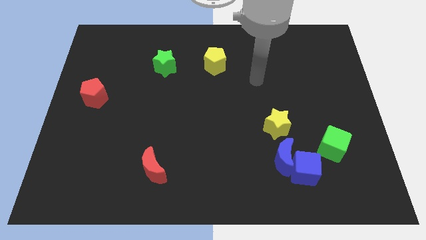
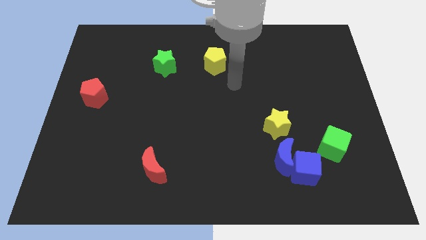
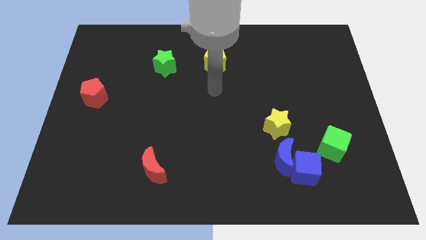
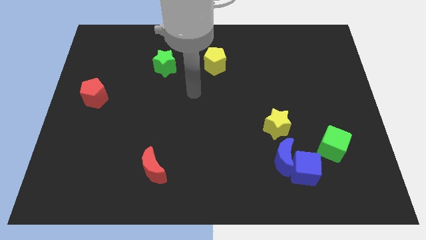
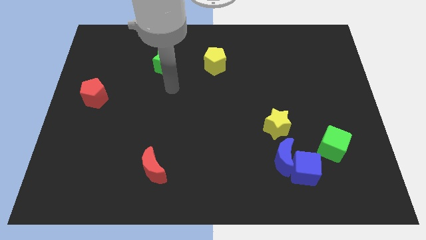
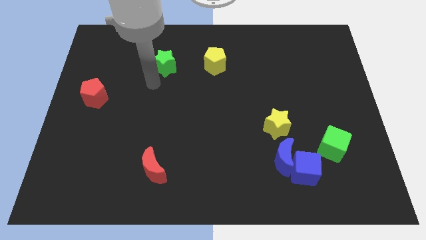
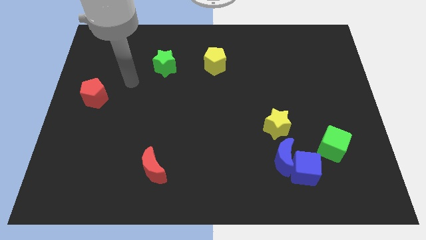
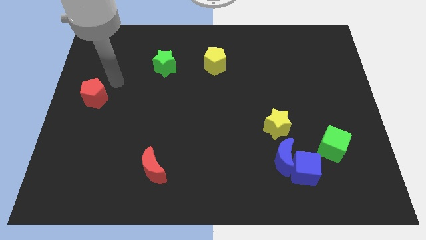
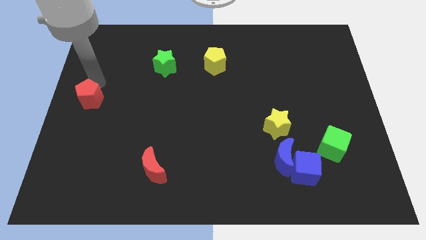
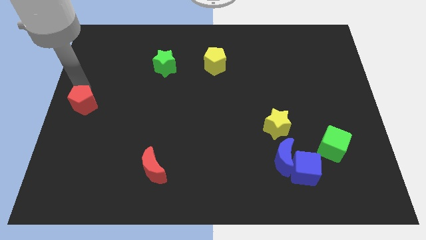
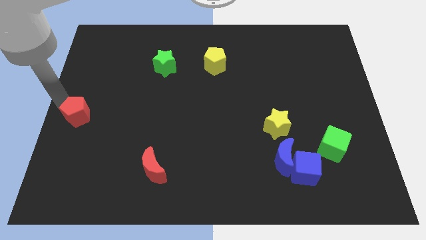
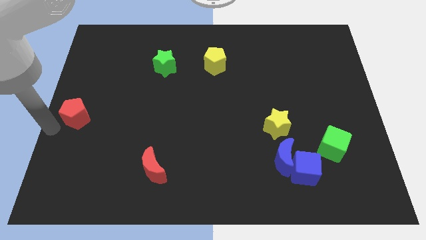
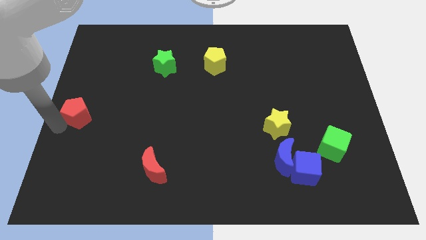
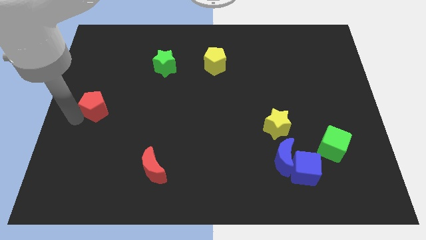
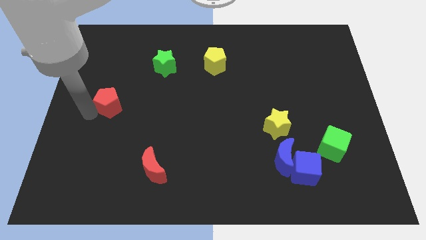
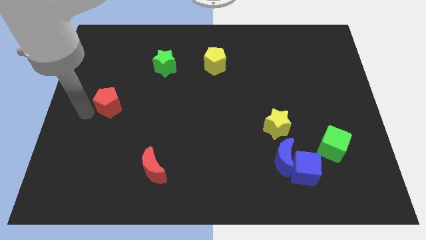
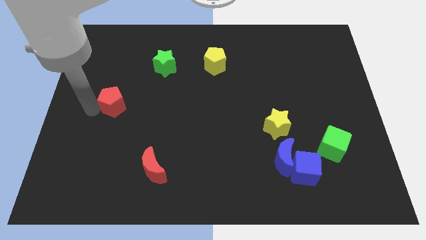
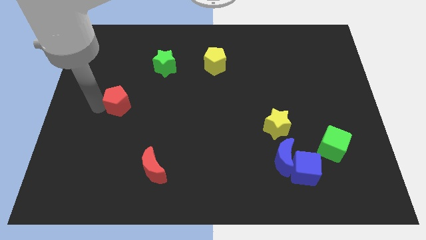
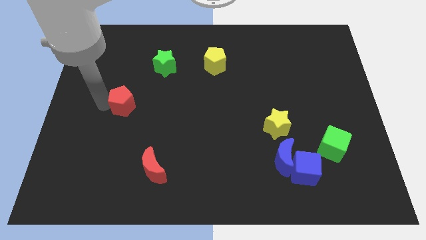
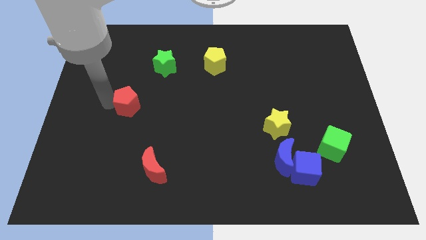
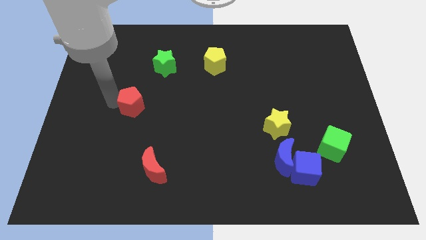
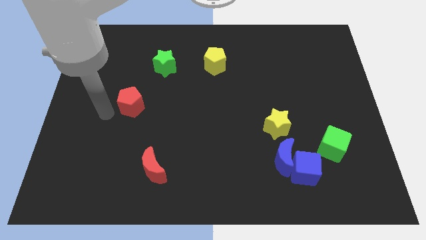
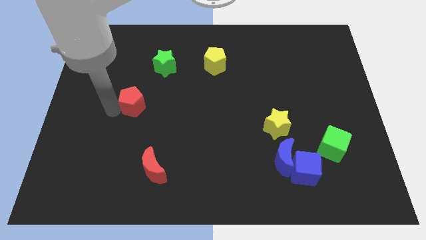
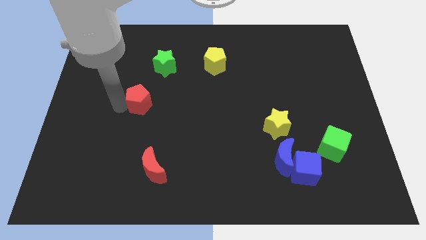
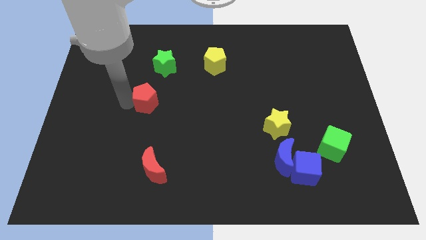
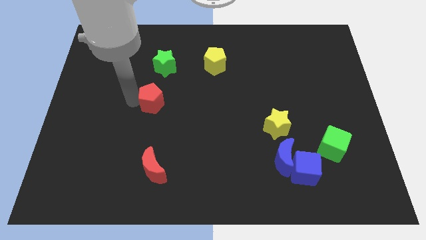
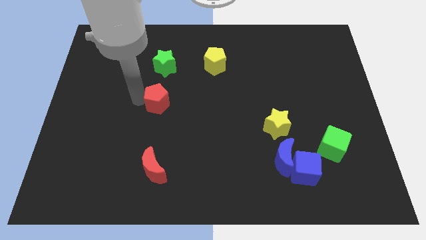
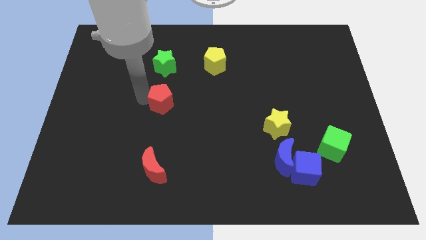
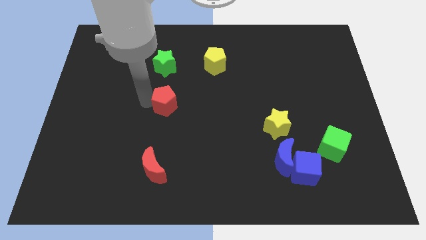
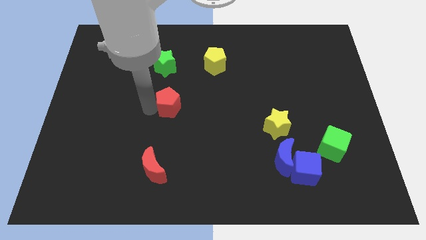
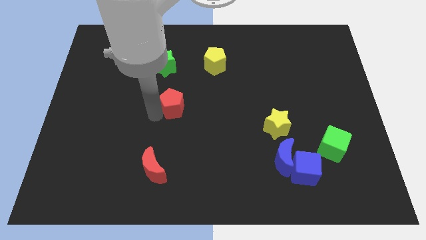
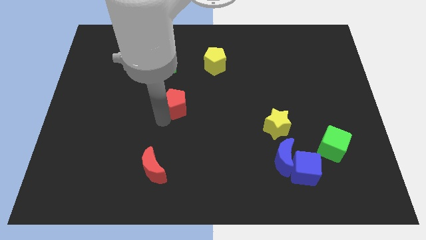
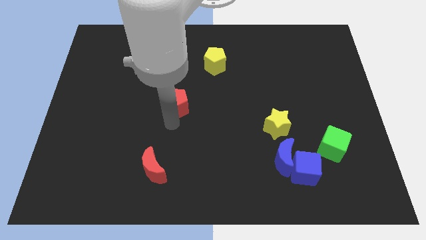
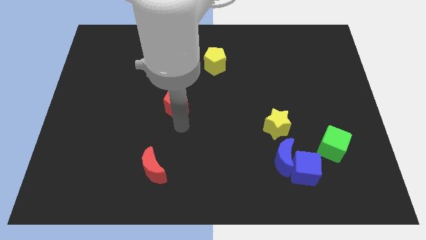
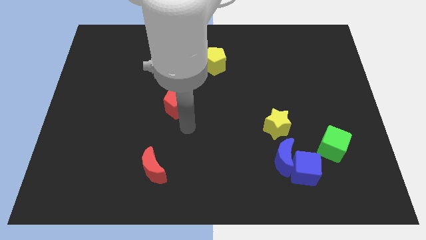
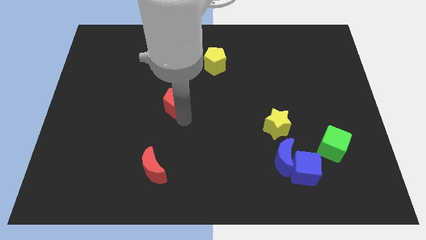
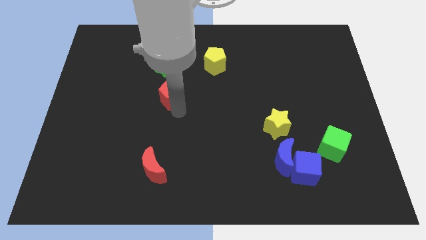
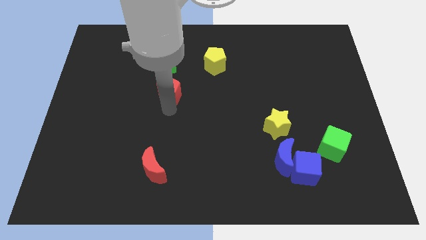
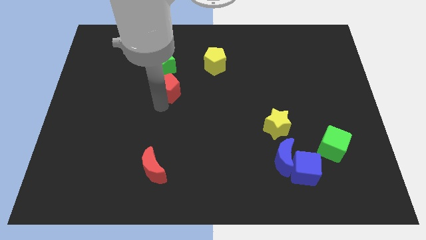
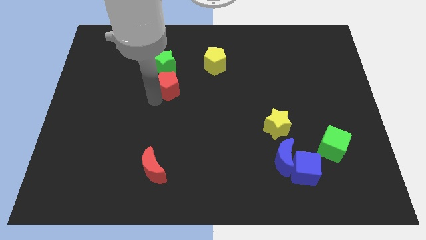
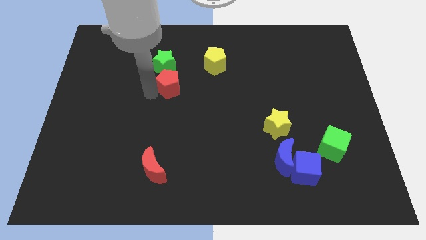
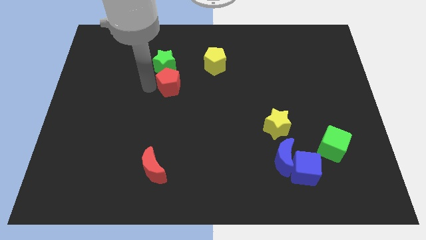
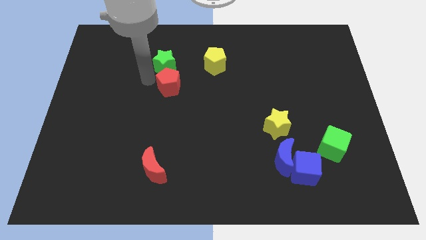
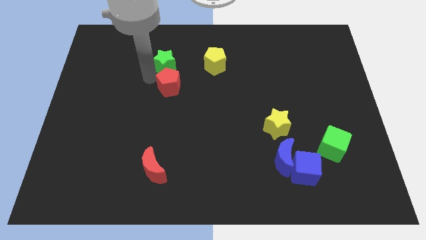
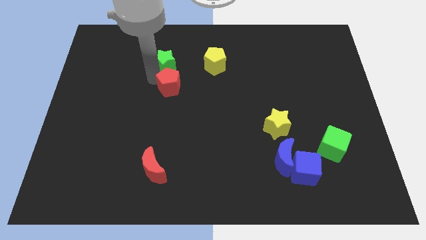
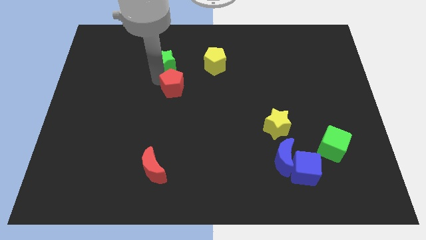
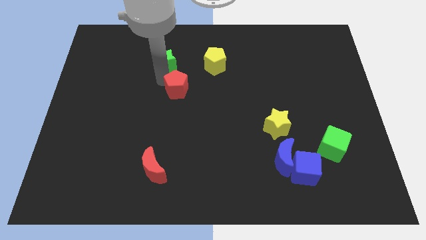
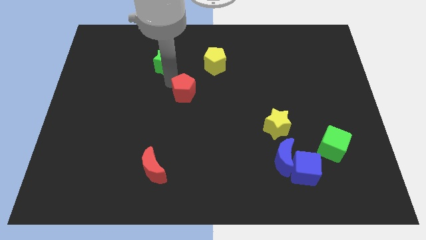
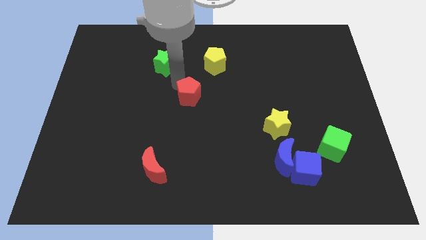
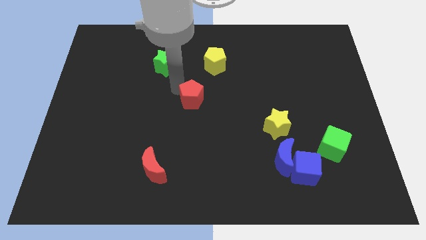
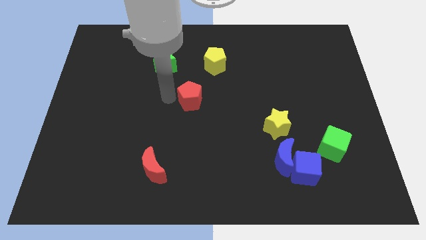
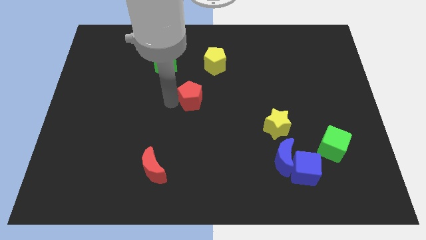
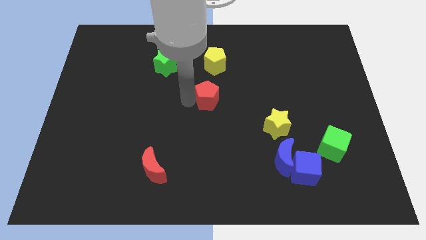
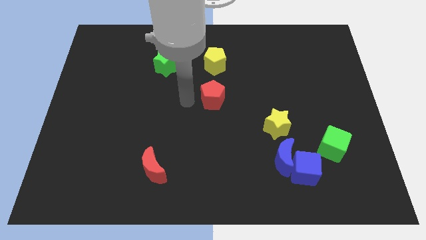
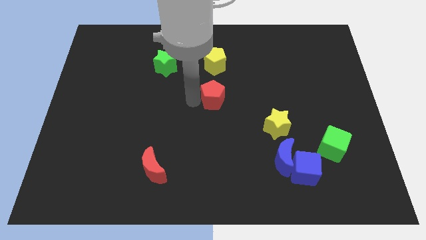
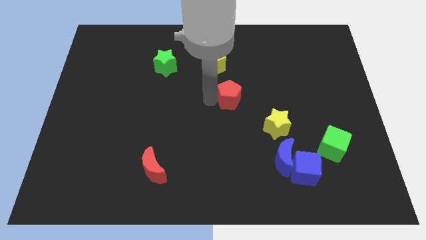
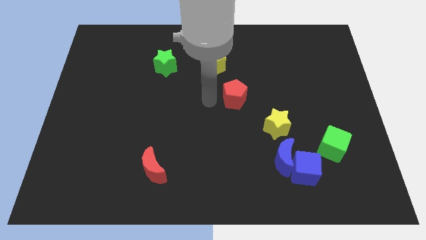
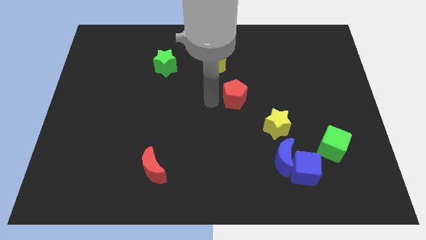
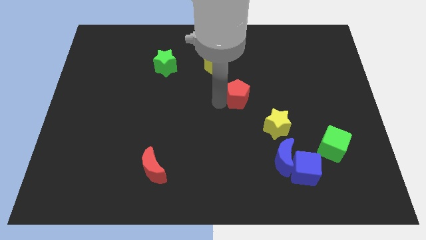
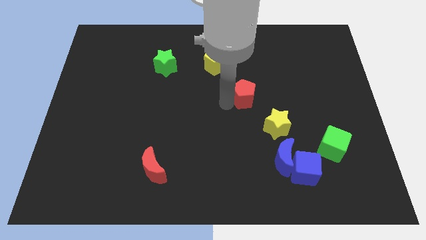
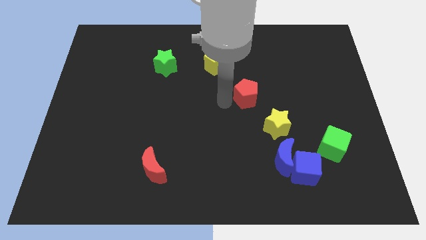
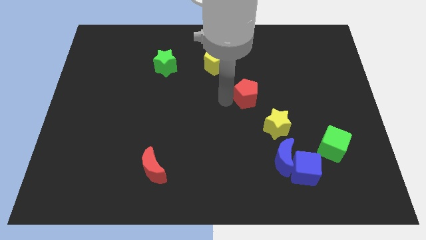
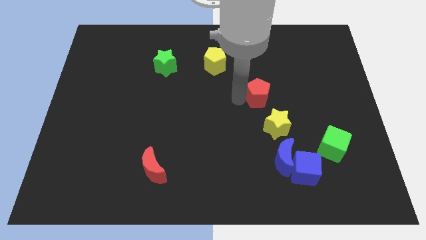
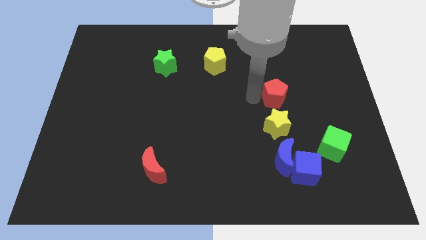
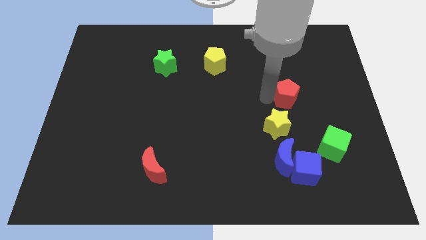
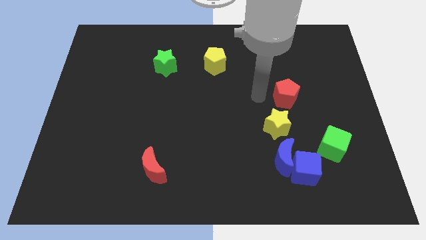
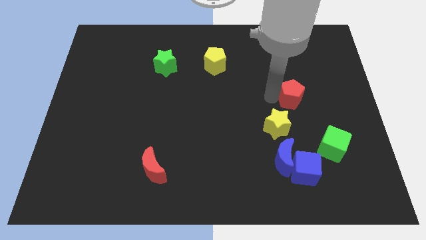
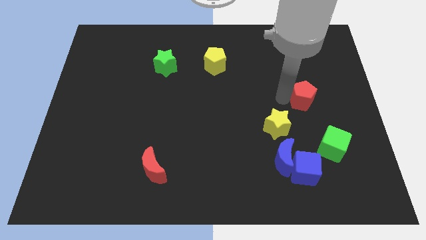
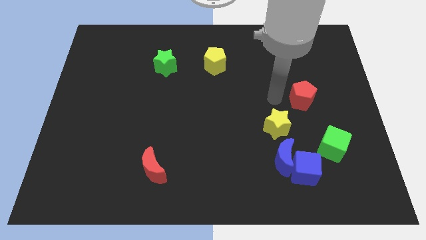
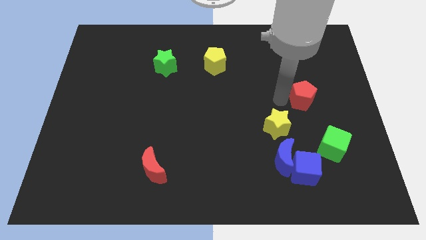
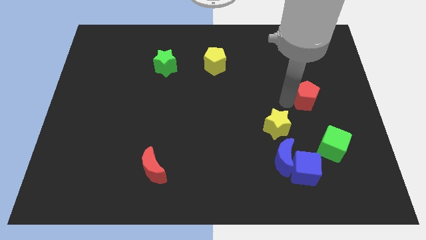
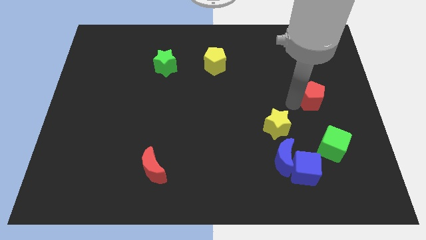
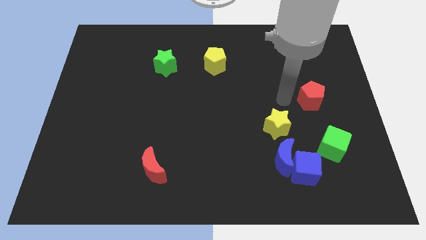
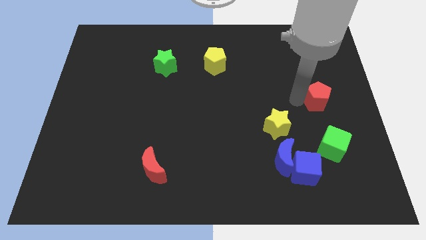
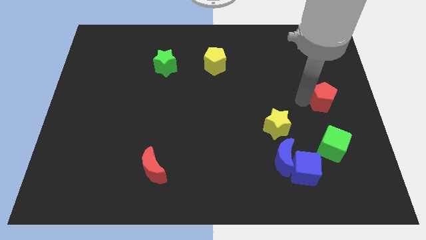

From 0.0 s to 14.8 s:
move the red pentagon to the right side of the board
